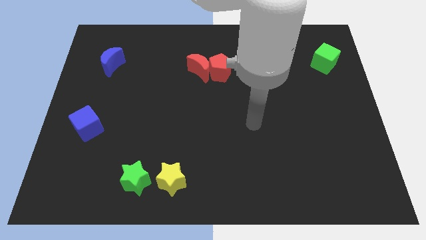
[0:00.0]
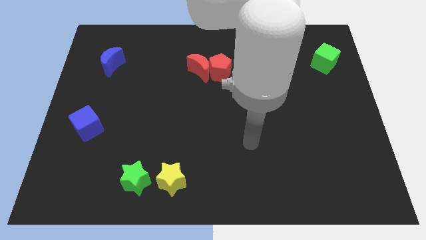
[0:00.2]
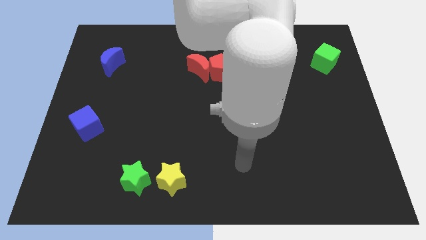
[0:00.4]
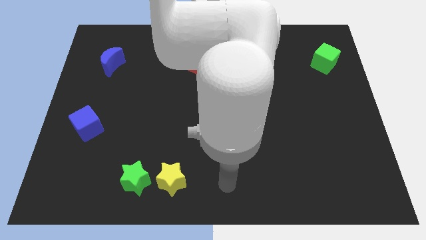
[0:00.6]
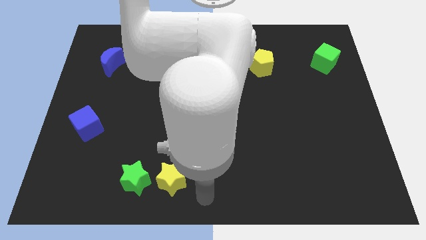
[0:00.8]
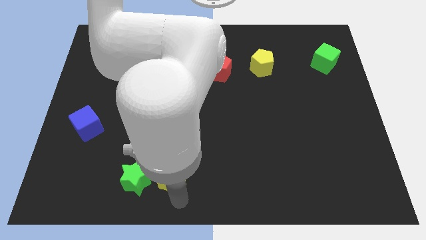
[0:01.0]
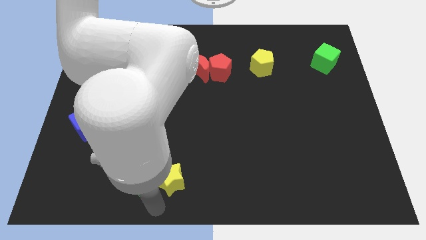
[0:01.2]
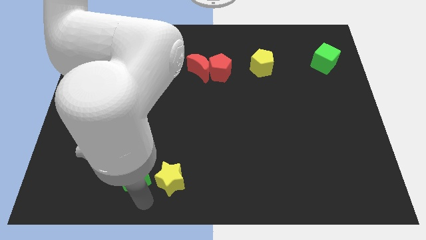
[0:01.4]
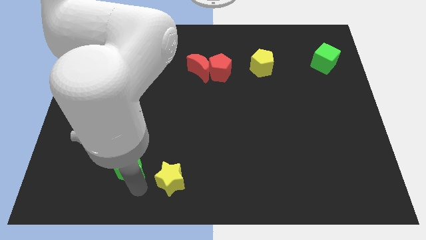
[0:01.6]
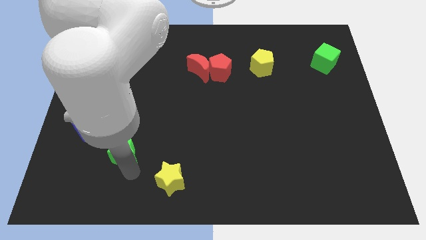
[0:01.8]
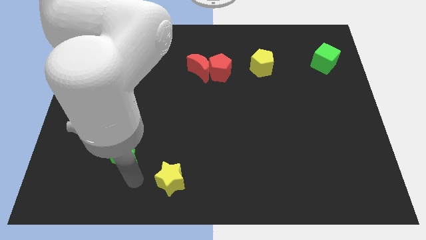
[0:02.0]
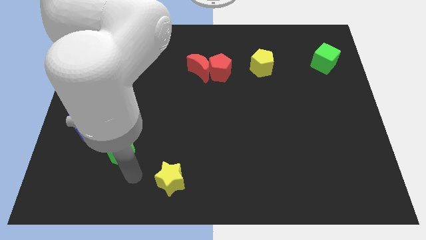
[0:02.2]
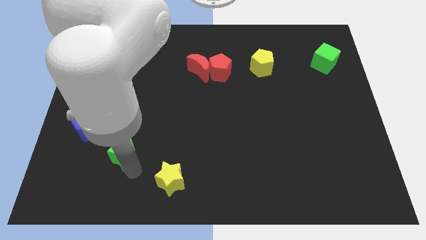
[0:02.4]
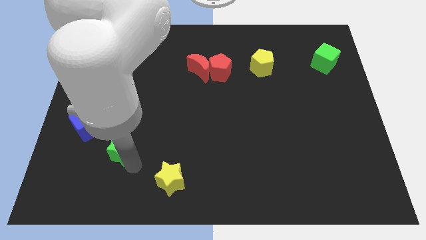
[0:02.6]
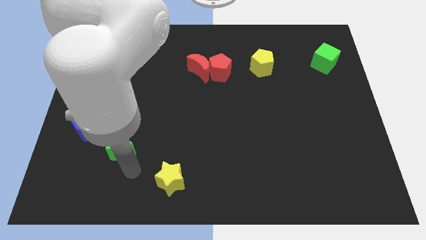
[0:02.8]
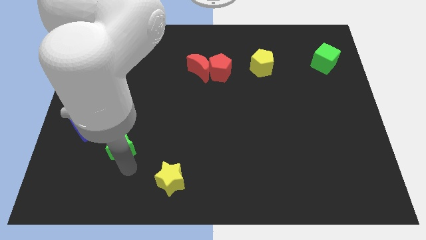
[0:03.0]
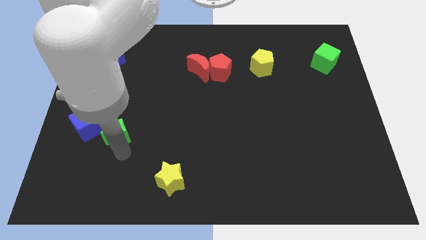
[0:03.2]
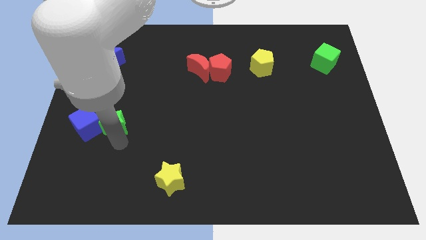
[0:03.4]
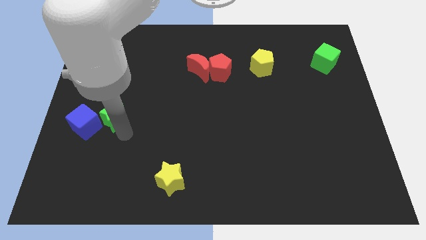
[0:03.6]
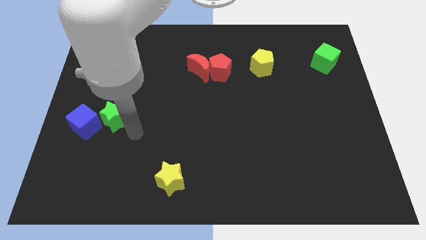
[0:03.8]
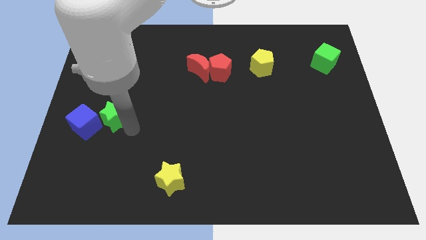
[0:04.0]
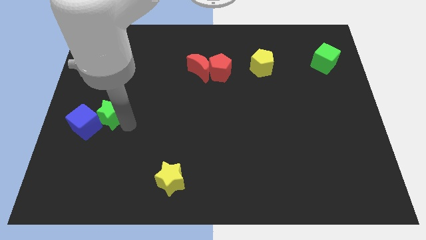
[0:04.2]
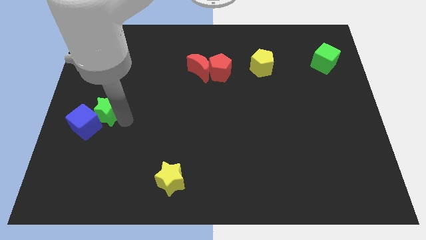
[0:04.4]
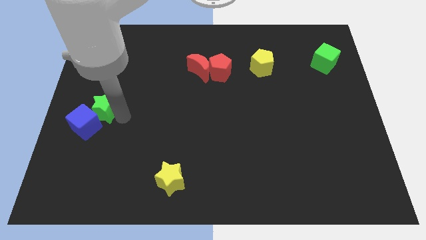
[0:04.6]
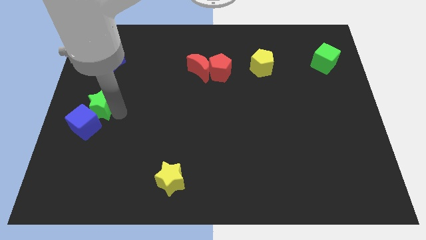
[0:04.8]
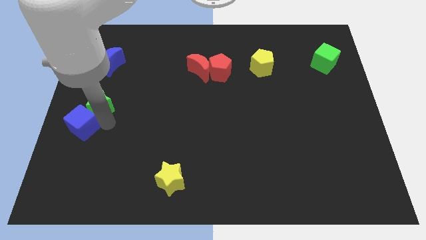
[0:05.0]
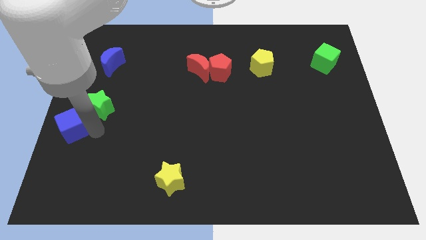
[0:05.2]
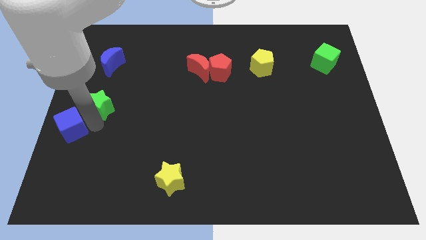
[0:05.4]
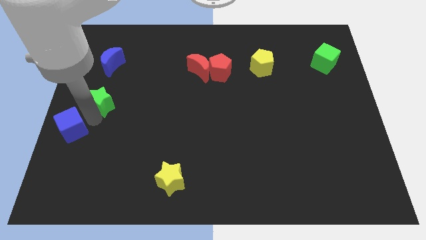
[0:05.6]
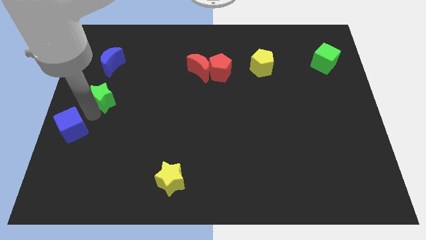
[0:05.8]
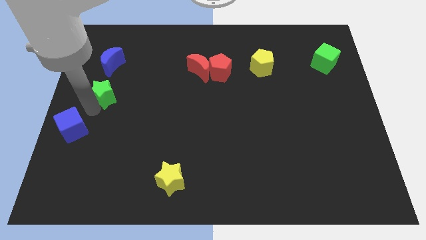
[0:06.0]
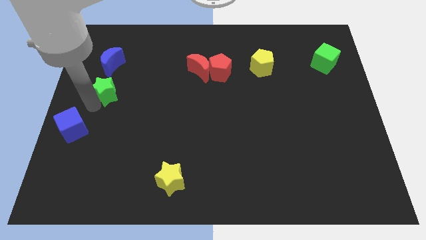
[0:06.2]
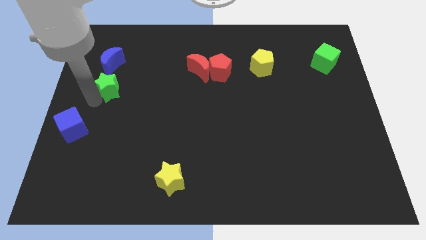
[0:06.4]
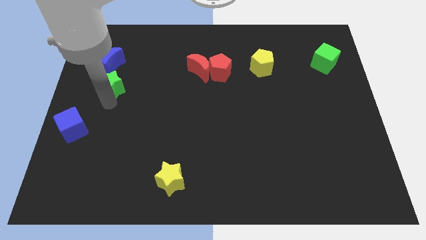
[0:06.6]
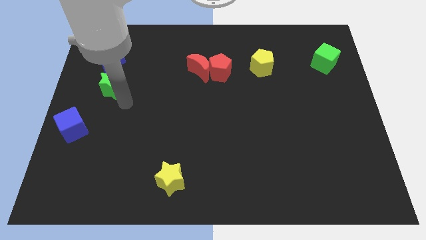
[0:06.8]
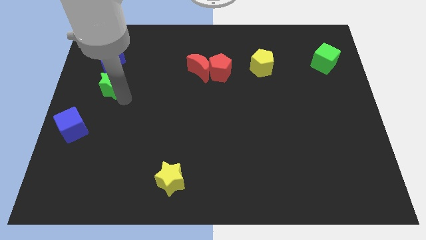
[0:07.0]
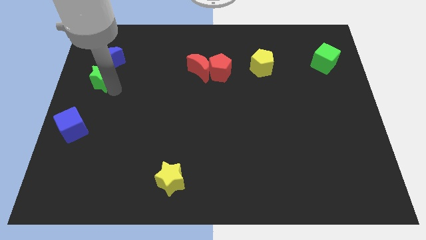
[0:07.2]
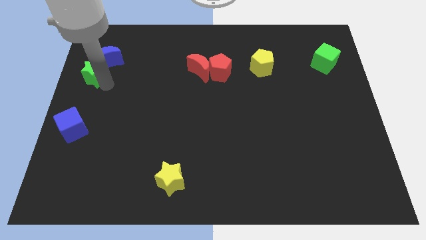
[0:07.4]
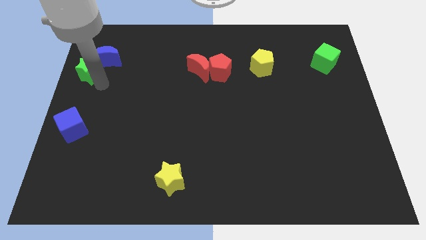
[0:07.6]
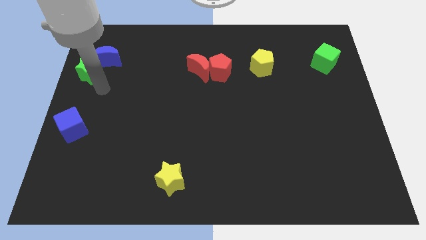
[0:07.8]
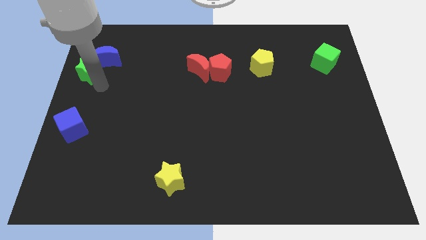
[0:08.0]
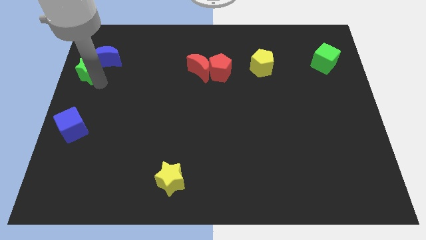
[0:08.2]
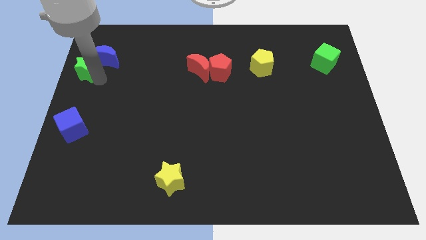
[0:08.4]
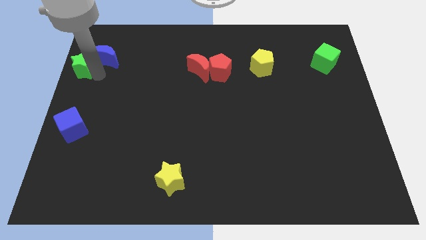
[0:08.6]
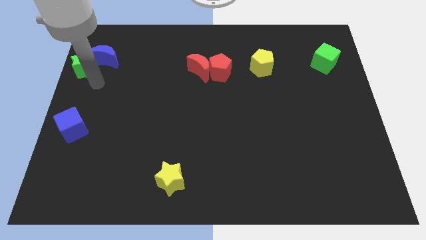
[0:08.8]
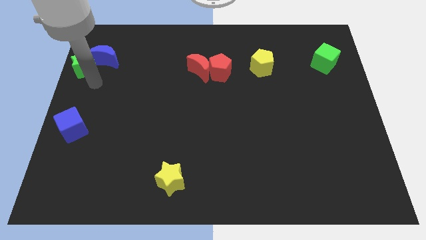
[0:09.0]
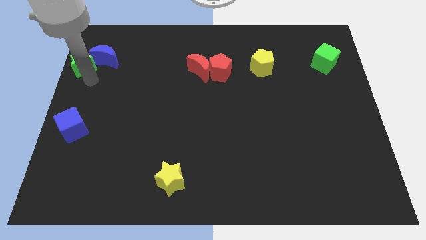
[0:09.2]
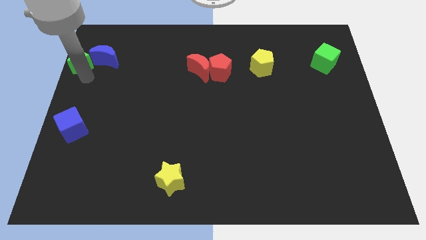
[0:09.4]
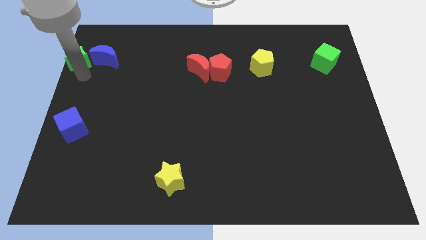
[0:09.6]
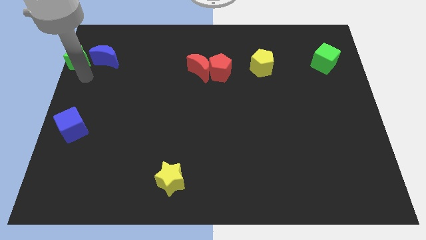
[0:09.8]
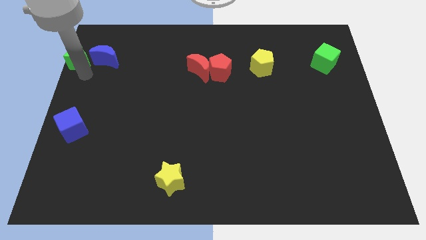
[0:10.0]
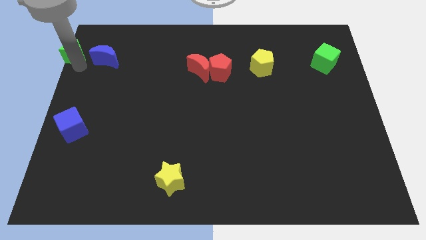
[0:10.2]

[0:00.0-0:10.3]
put the green star to the upper left corner

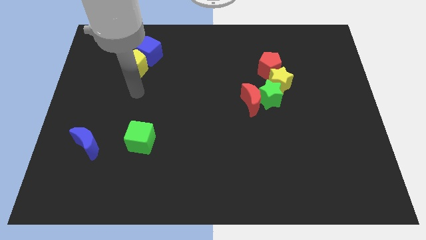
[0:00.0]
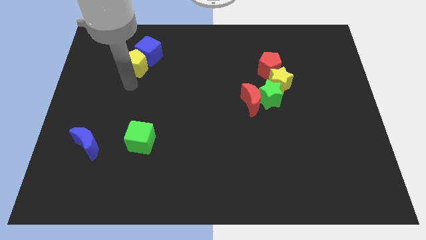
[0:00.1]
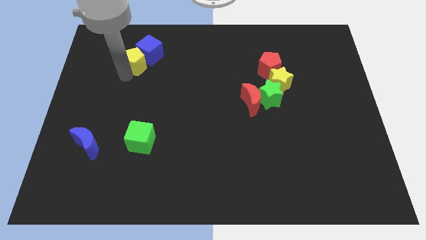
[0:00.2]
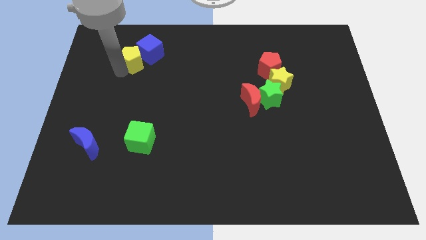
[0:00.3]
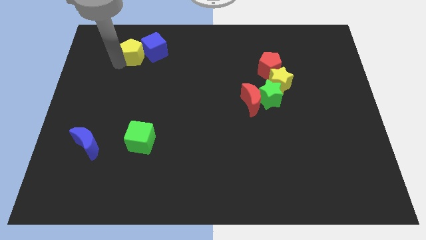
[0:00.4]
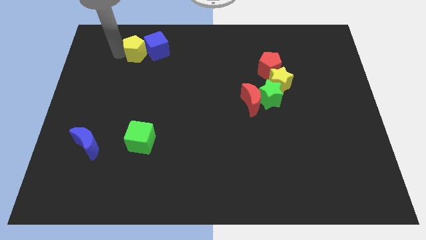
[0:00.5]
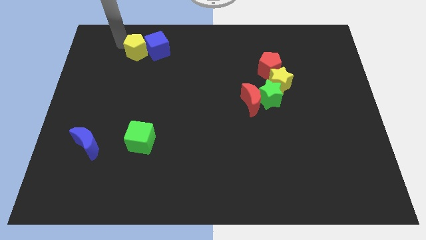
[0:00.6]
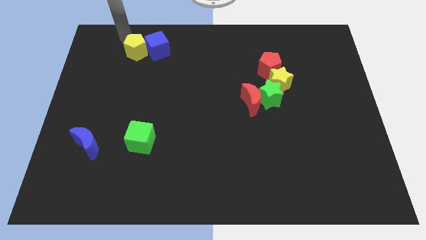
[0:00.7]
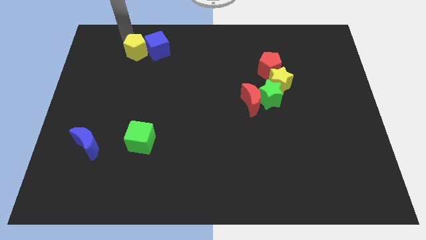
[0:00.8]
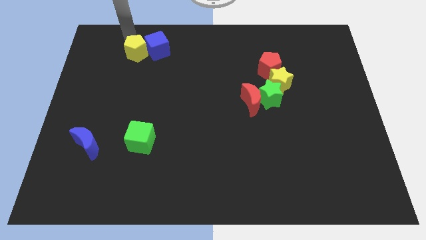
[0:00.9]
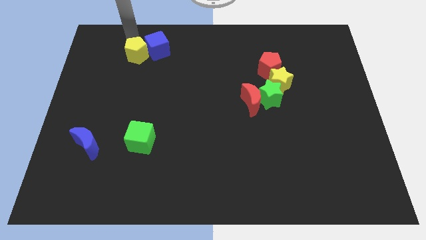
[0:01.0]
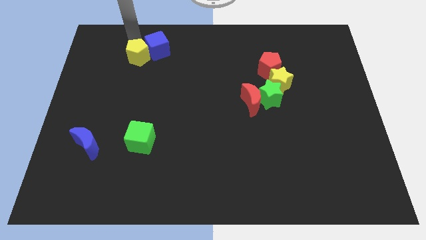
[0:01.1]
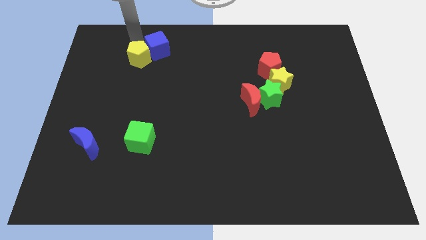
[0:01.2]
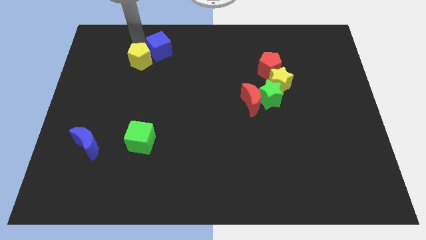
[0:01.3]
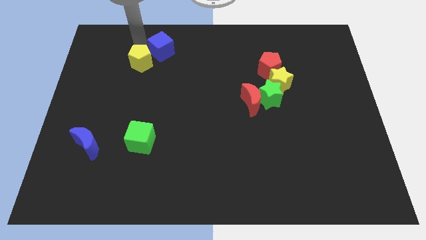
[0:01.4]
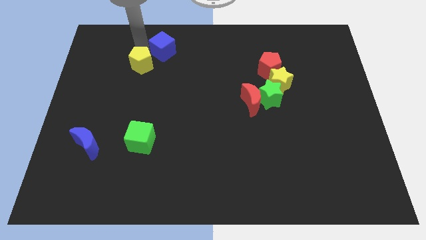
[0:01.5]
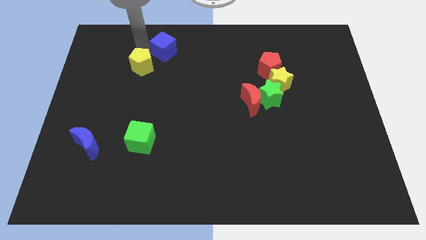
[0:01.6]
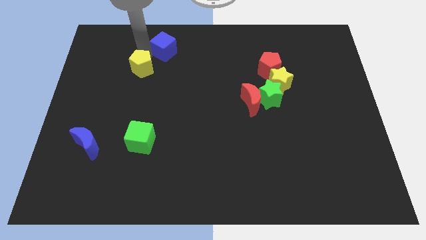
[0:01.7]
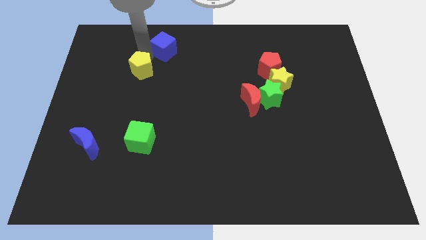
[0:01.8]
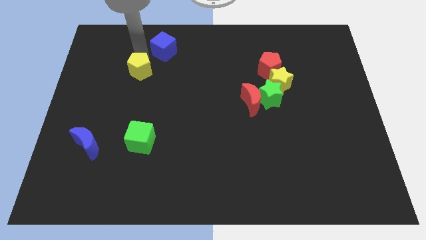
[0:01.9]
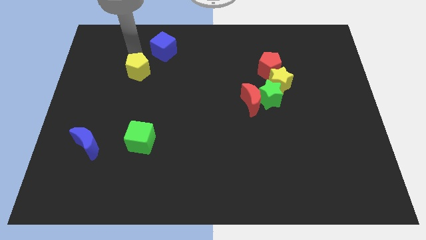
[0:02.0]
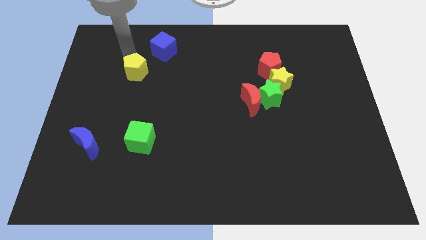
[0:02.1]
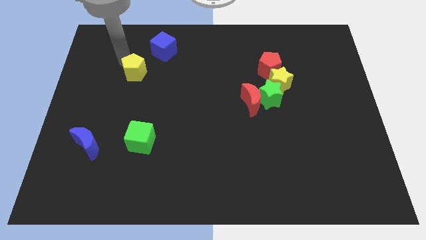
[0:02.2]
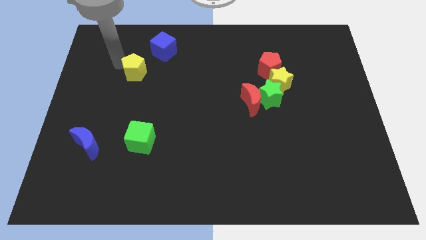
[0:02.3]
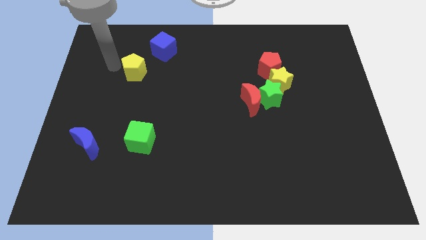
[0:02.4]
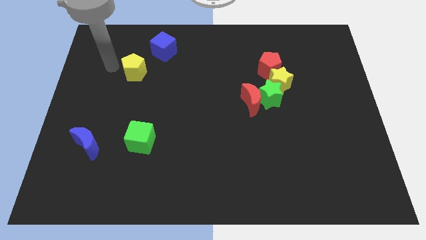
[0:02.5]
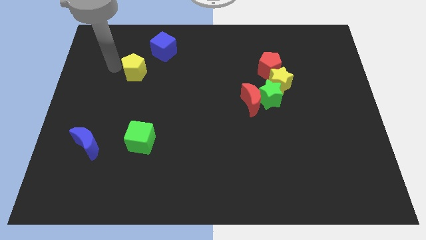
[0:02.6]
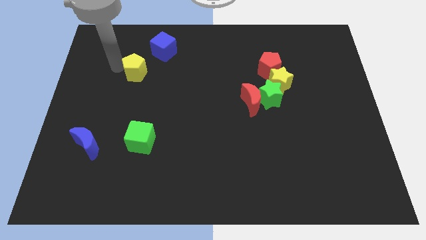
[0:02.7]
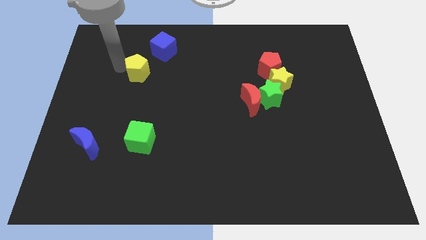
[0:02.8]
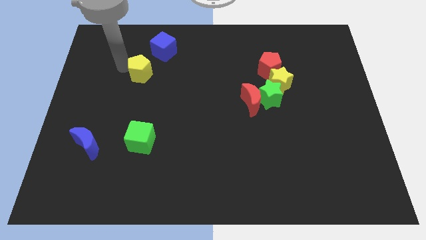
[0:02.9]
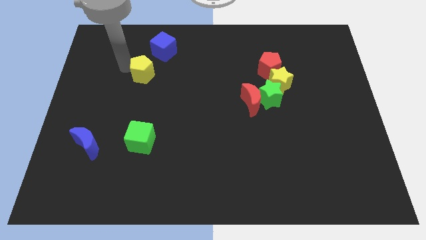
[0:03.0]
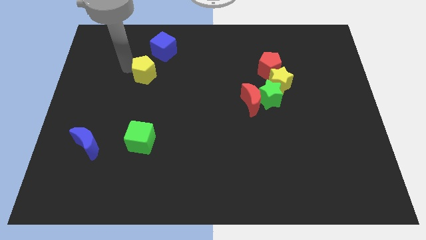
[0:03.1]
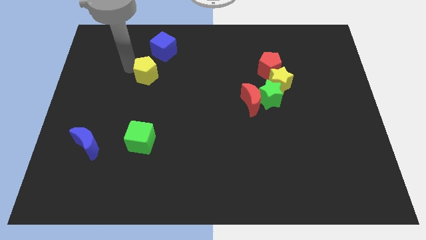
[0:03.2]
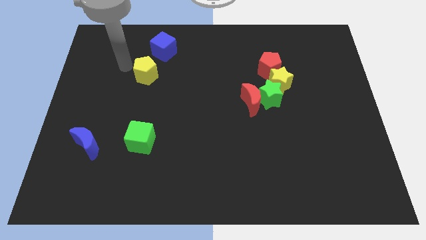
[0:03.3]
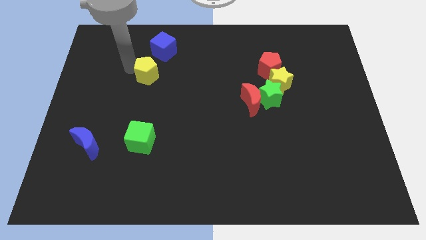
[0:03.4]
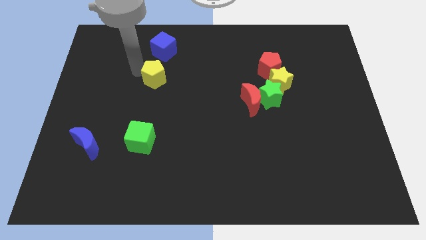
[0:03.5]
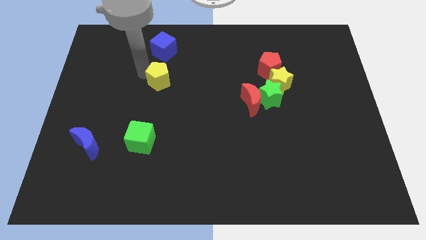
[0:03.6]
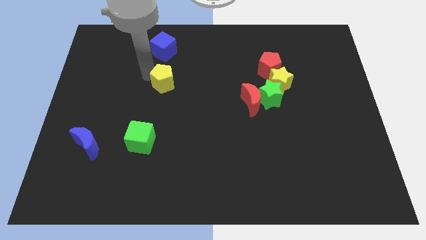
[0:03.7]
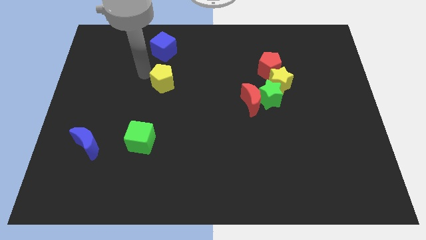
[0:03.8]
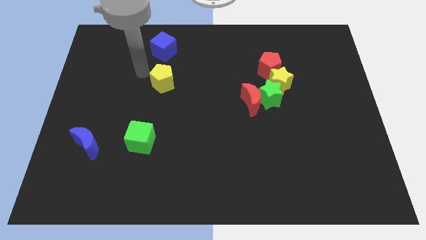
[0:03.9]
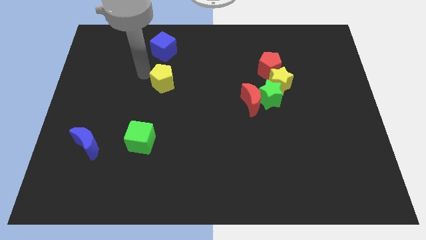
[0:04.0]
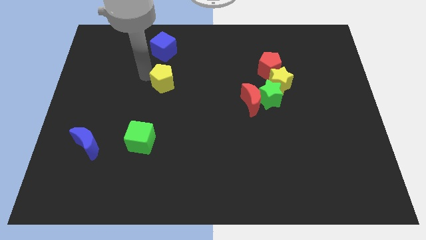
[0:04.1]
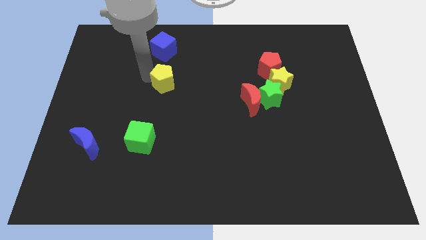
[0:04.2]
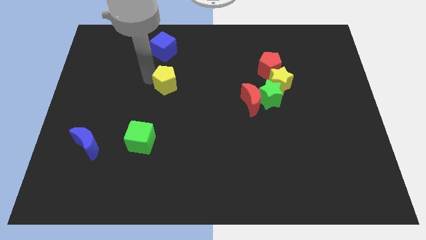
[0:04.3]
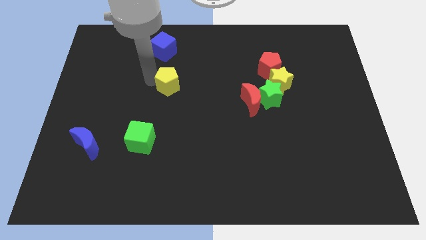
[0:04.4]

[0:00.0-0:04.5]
push the yellow pentagon to the center of the board
